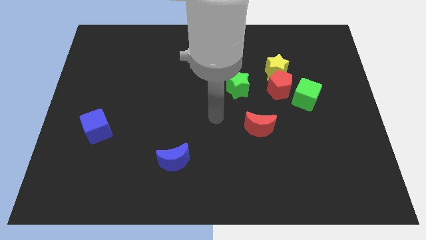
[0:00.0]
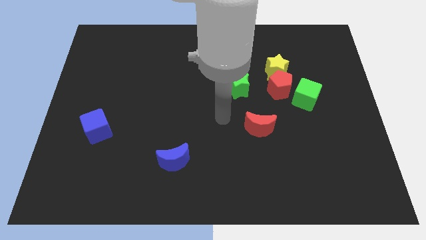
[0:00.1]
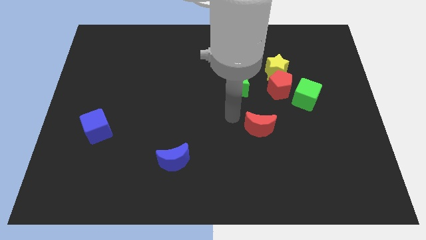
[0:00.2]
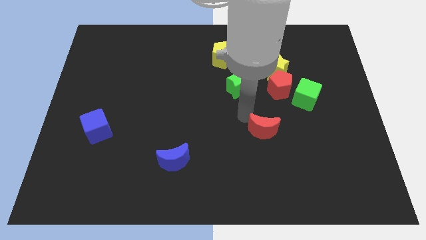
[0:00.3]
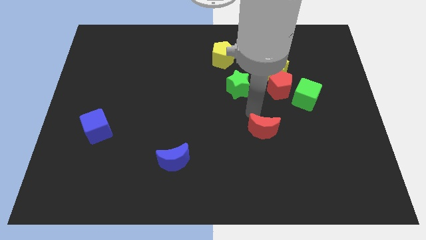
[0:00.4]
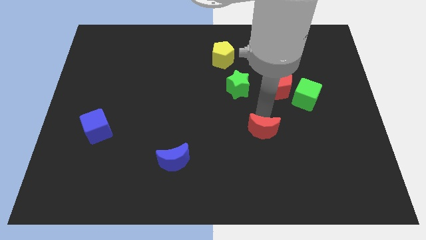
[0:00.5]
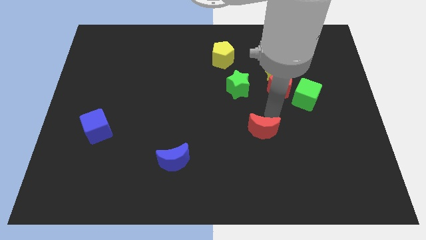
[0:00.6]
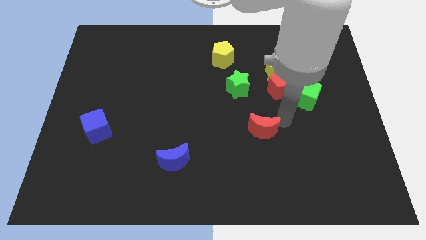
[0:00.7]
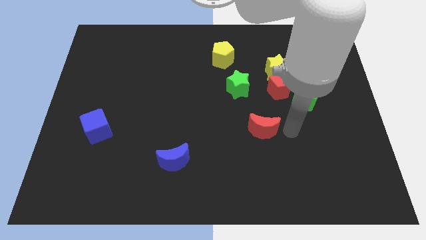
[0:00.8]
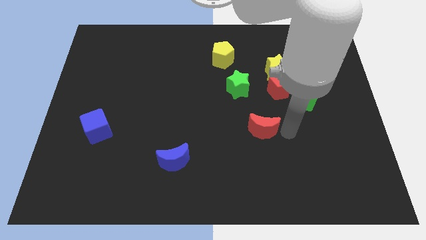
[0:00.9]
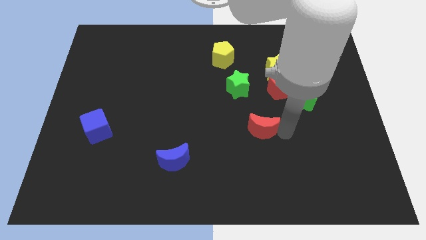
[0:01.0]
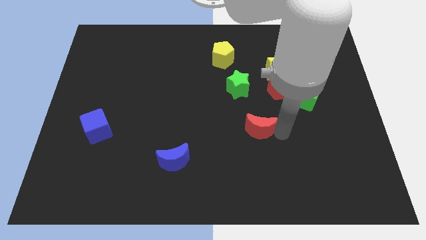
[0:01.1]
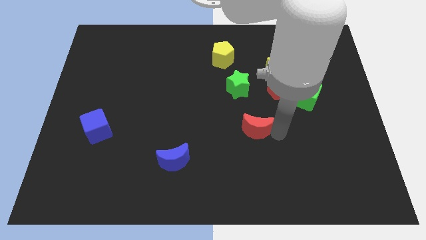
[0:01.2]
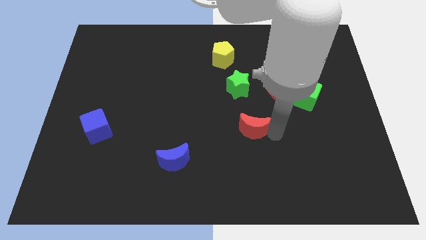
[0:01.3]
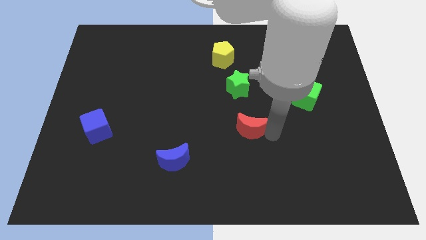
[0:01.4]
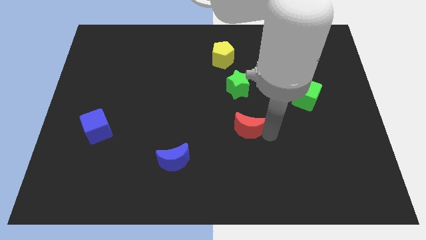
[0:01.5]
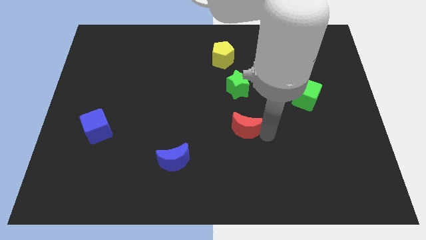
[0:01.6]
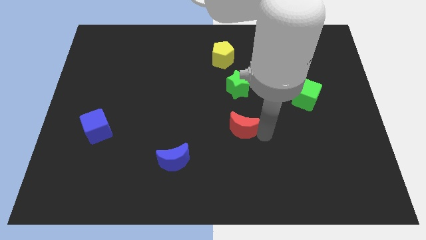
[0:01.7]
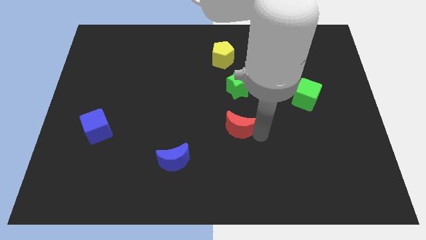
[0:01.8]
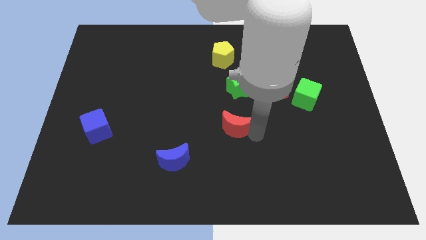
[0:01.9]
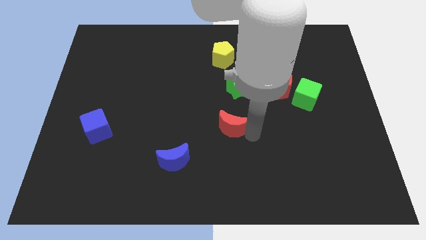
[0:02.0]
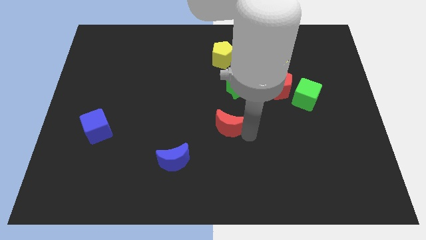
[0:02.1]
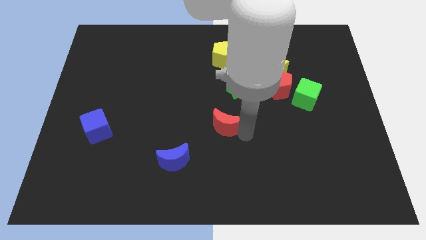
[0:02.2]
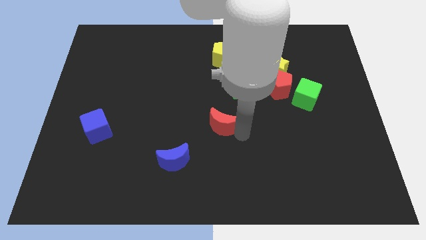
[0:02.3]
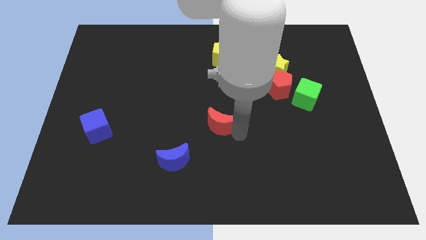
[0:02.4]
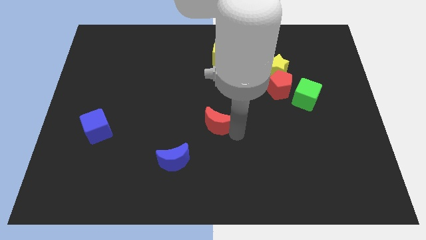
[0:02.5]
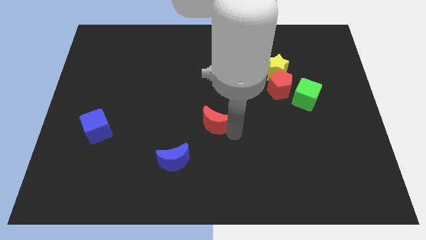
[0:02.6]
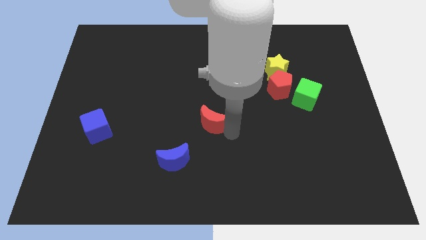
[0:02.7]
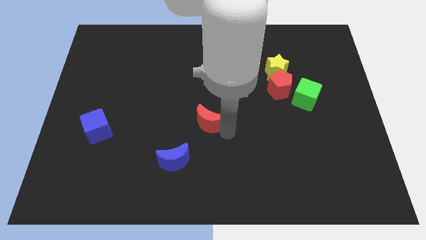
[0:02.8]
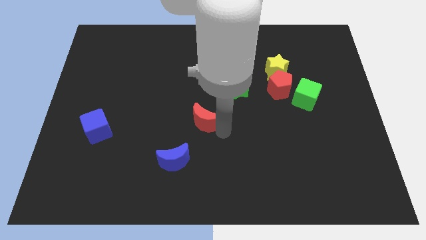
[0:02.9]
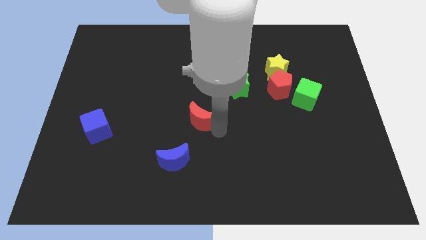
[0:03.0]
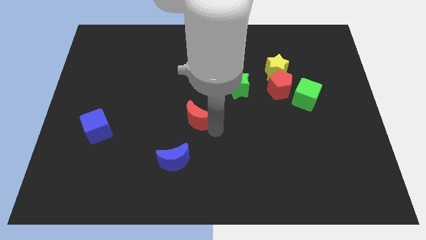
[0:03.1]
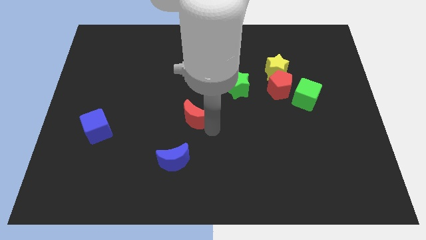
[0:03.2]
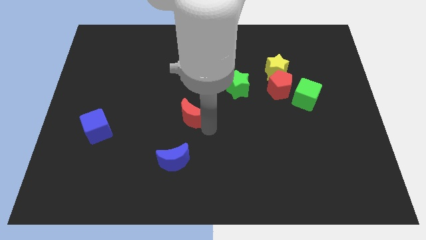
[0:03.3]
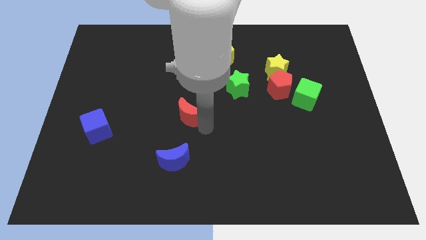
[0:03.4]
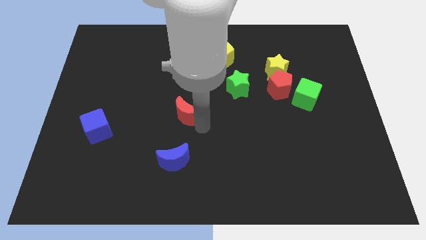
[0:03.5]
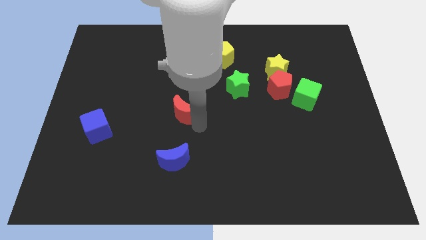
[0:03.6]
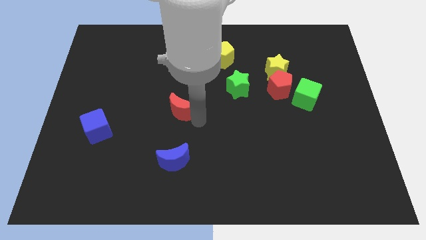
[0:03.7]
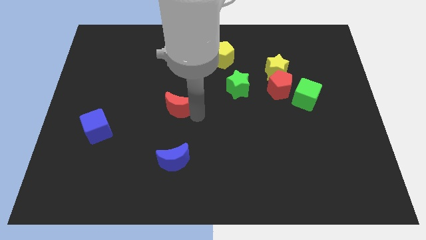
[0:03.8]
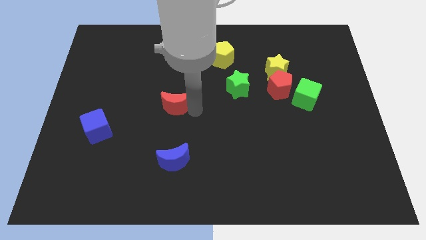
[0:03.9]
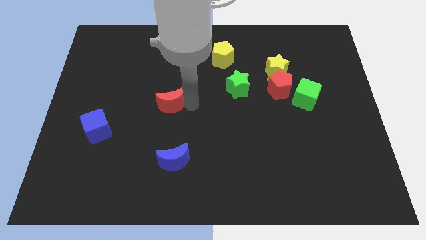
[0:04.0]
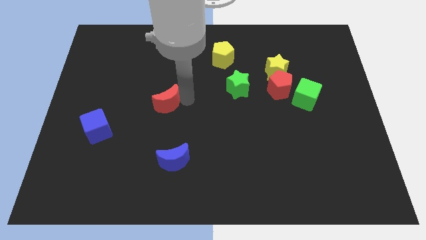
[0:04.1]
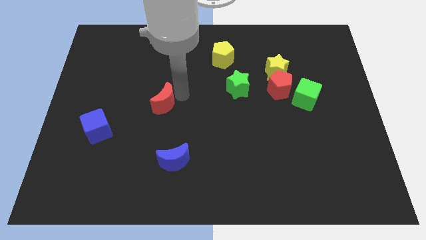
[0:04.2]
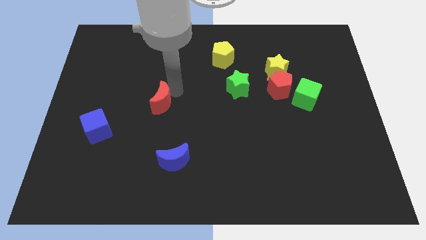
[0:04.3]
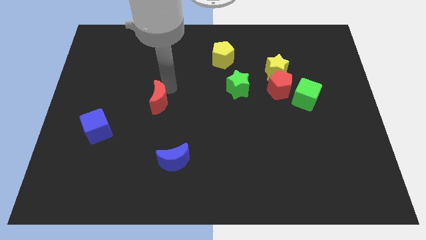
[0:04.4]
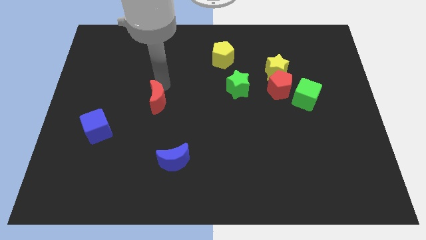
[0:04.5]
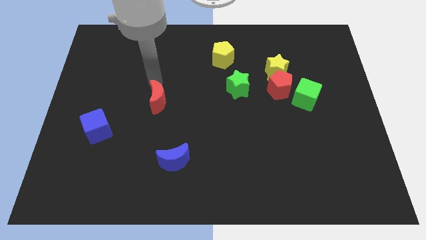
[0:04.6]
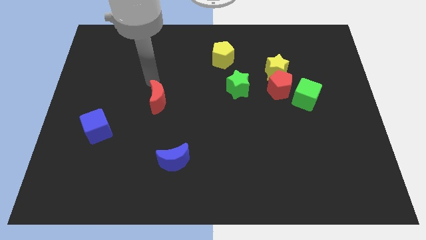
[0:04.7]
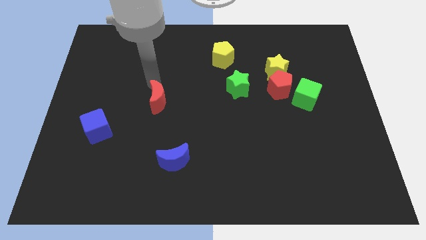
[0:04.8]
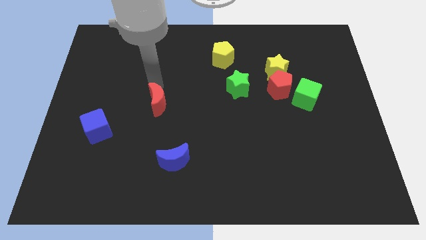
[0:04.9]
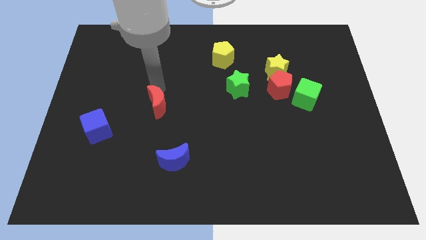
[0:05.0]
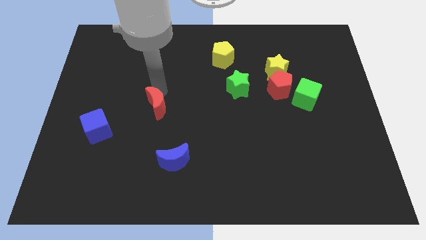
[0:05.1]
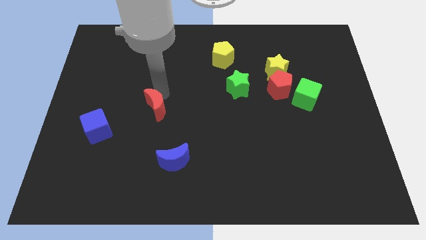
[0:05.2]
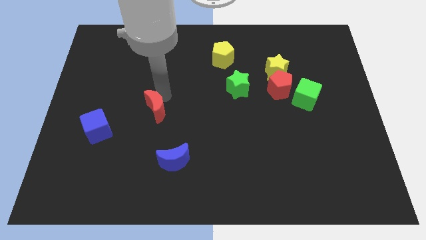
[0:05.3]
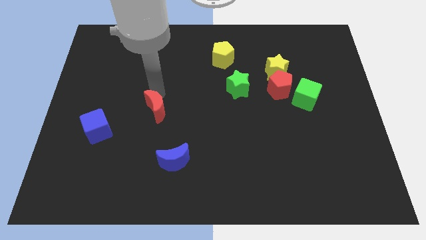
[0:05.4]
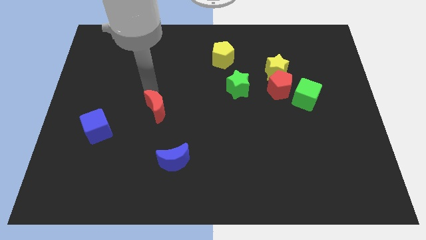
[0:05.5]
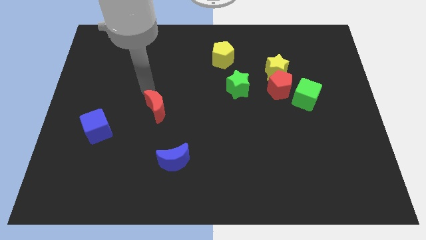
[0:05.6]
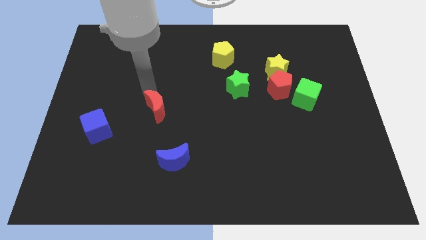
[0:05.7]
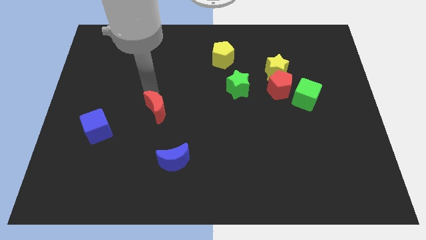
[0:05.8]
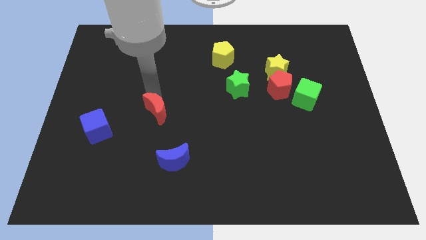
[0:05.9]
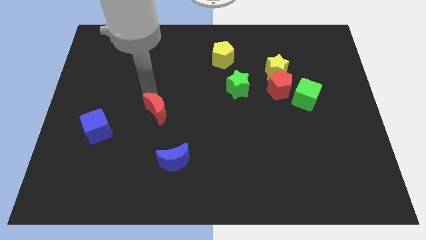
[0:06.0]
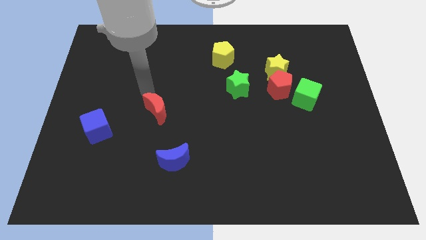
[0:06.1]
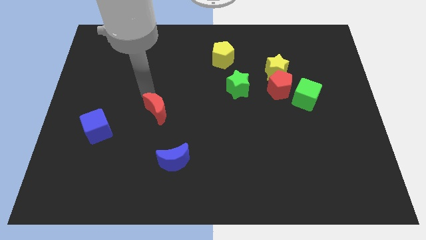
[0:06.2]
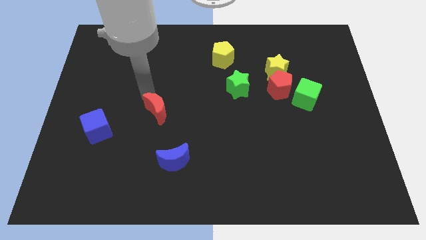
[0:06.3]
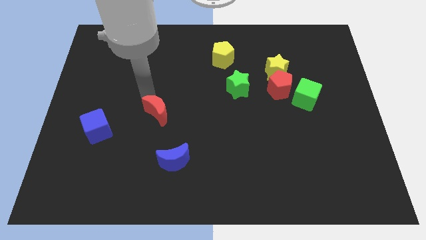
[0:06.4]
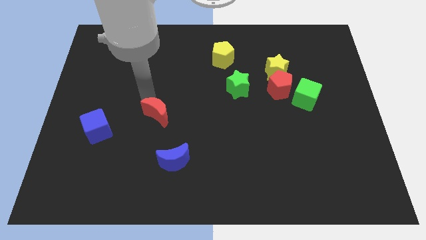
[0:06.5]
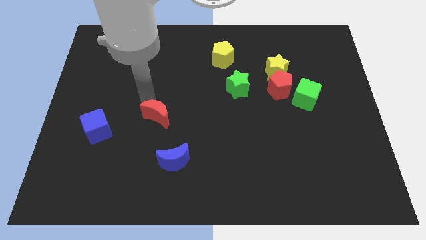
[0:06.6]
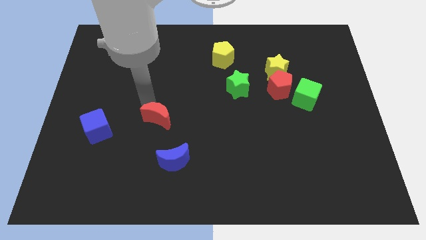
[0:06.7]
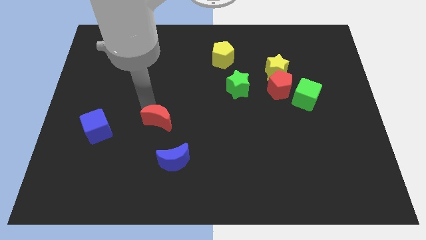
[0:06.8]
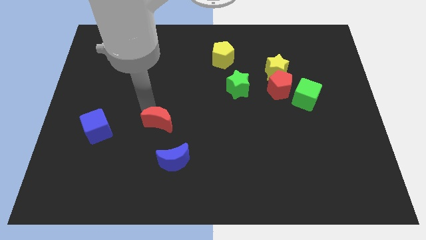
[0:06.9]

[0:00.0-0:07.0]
push the red moon to the top left of the blue moon

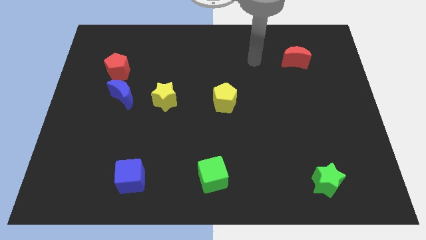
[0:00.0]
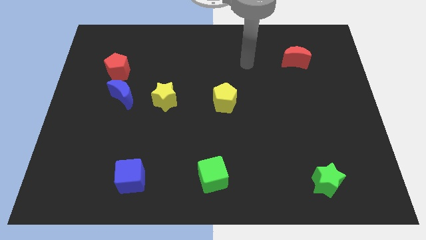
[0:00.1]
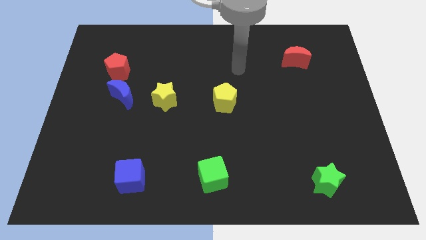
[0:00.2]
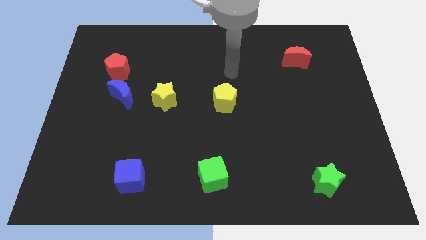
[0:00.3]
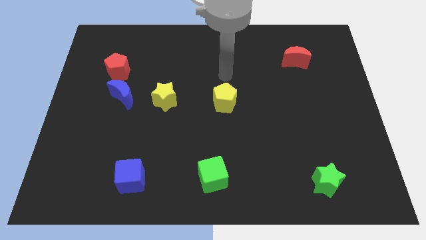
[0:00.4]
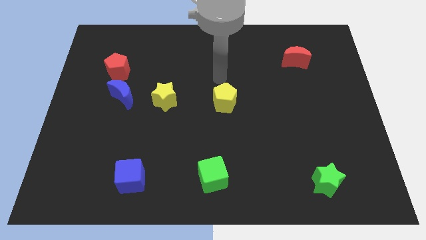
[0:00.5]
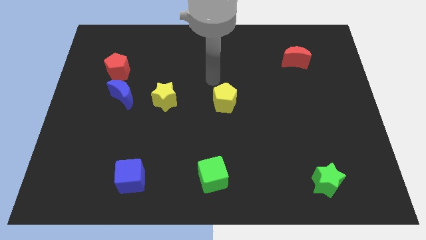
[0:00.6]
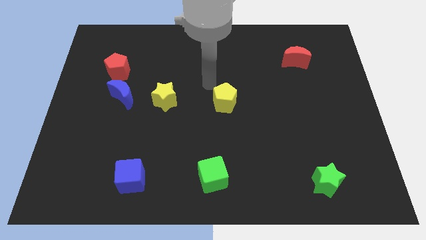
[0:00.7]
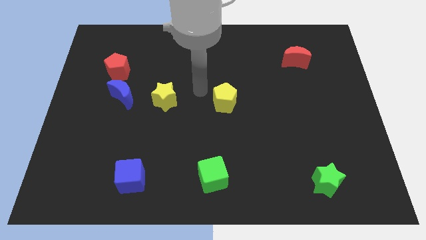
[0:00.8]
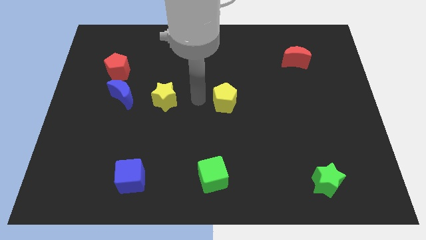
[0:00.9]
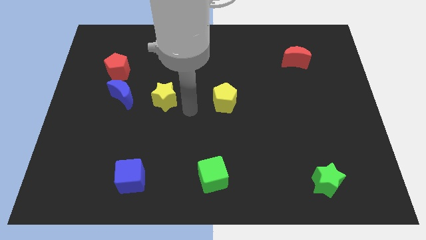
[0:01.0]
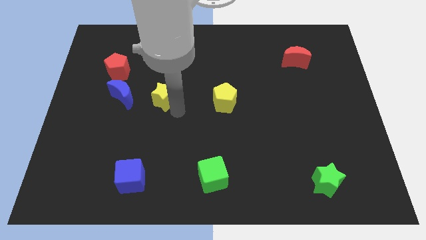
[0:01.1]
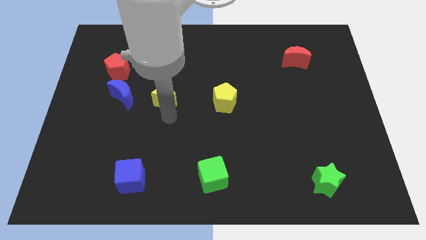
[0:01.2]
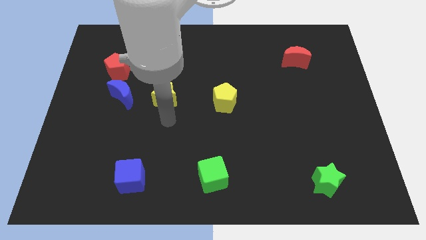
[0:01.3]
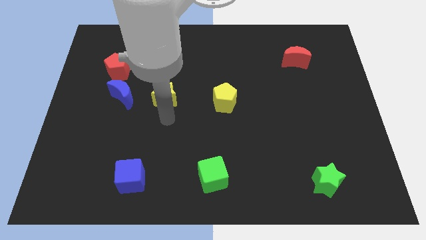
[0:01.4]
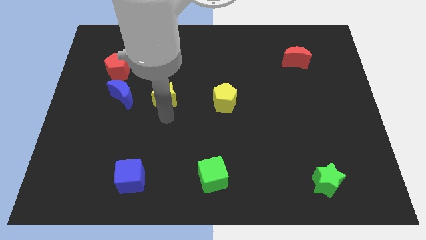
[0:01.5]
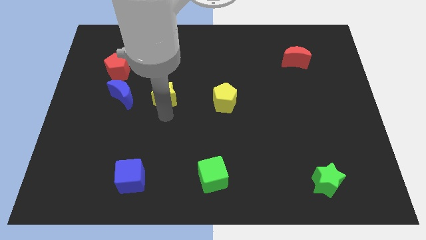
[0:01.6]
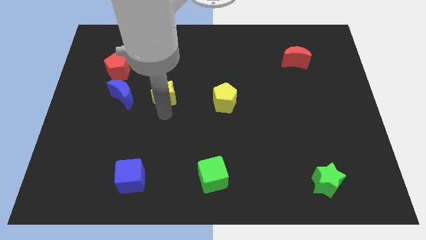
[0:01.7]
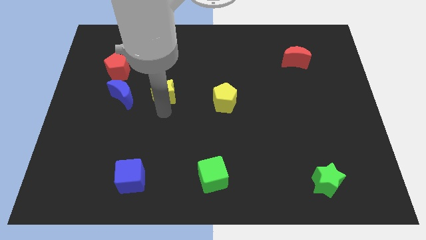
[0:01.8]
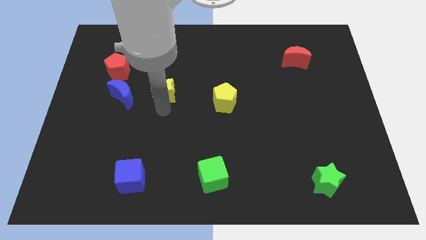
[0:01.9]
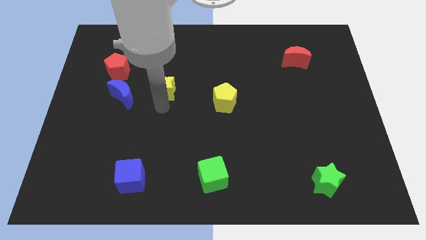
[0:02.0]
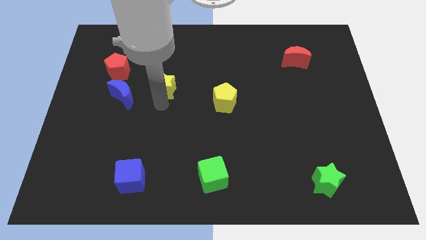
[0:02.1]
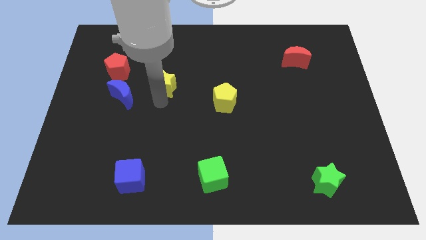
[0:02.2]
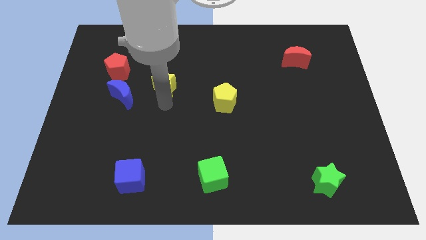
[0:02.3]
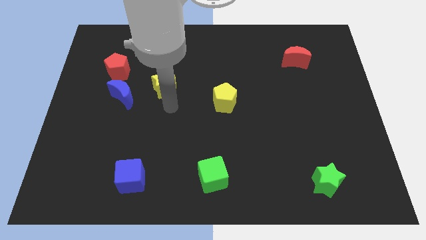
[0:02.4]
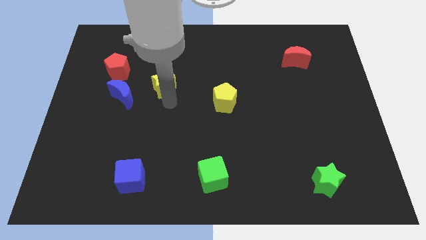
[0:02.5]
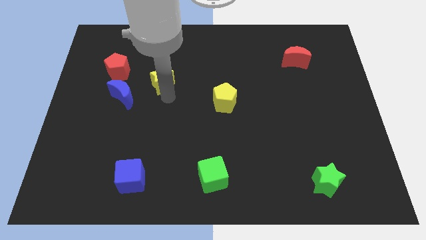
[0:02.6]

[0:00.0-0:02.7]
move the yellow star to the right side of the red pentagon
